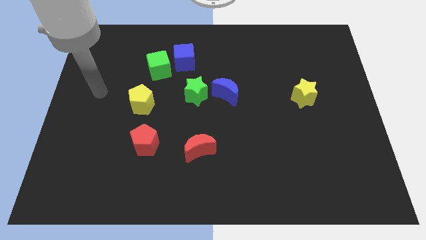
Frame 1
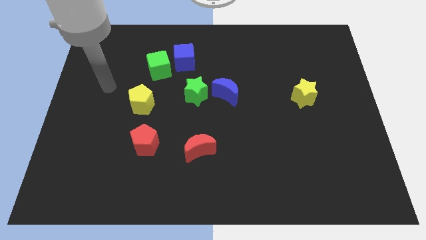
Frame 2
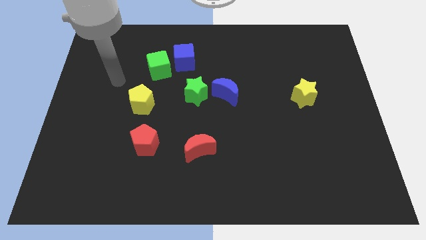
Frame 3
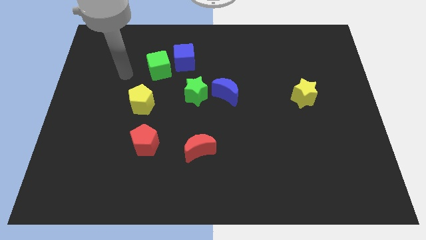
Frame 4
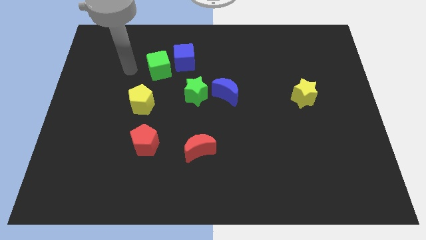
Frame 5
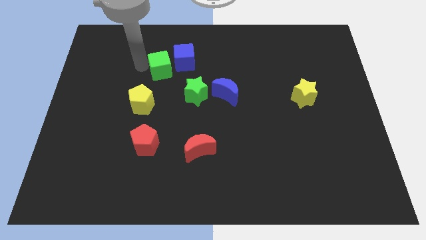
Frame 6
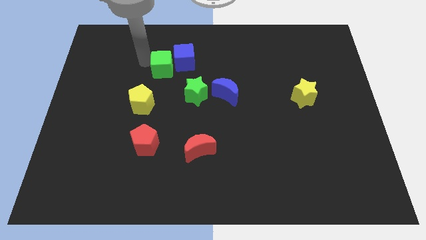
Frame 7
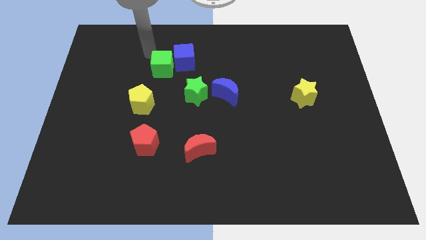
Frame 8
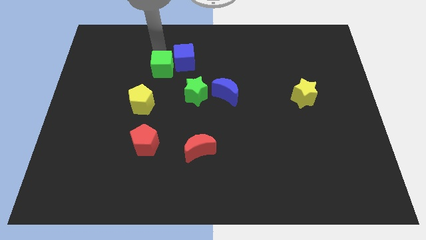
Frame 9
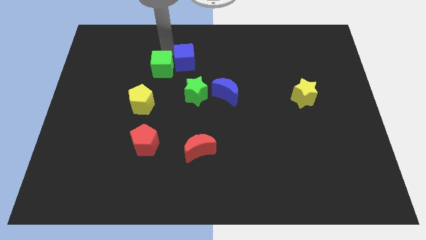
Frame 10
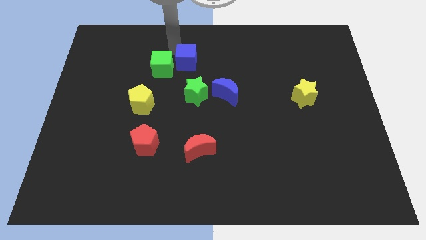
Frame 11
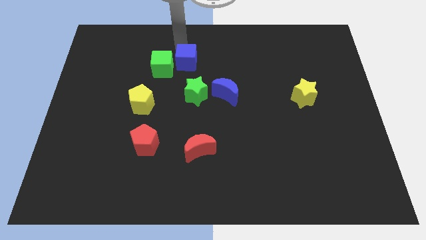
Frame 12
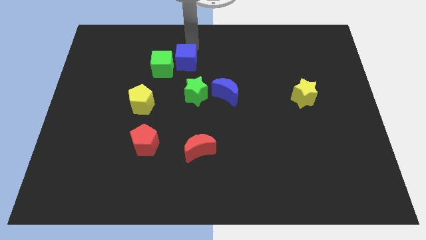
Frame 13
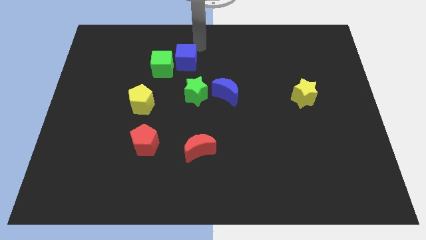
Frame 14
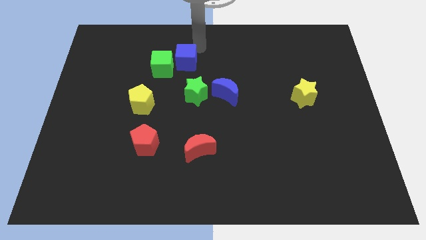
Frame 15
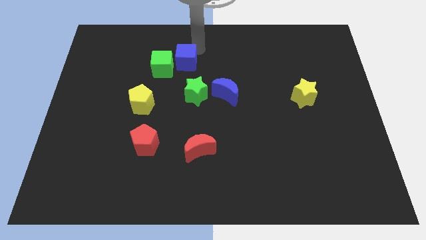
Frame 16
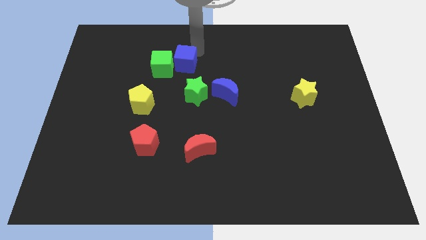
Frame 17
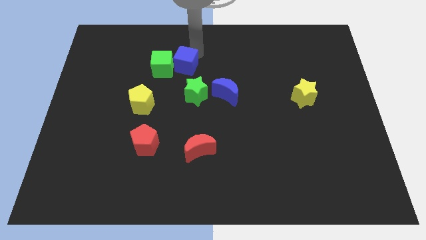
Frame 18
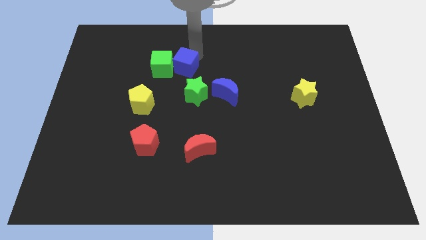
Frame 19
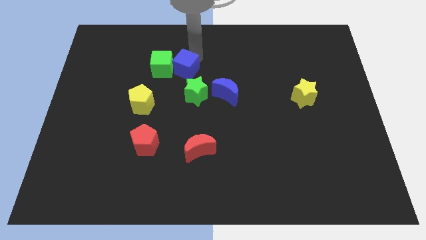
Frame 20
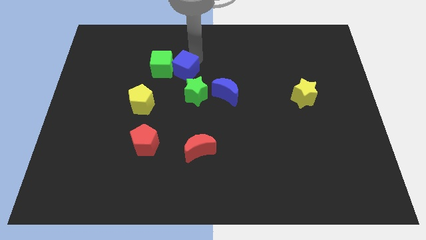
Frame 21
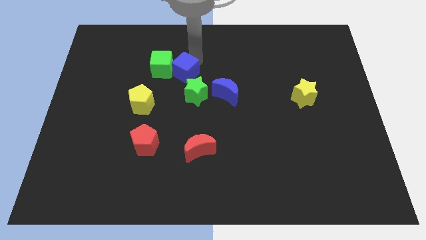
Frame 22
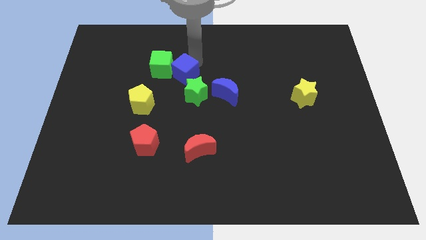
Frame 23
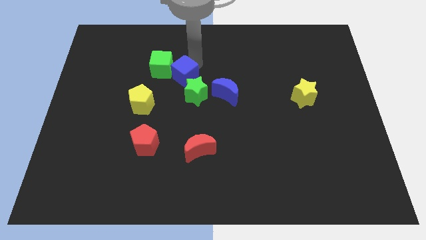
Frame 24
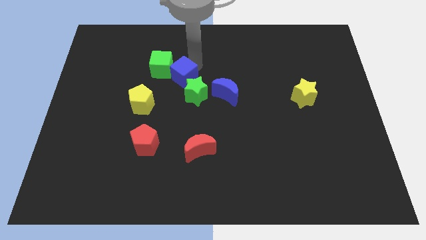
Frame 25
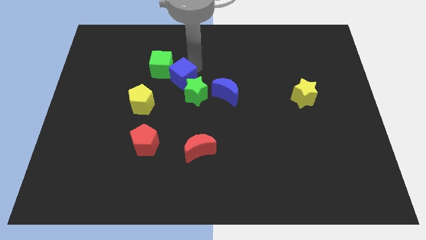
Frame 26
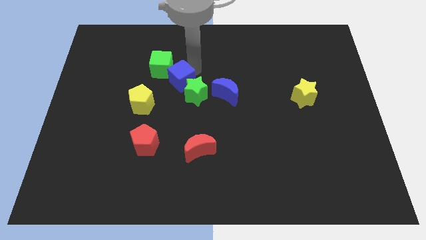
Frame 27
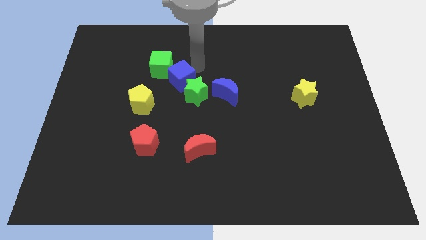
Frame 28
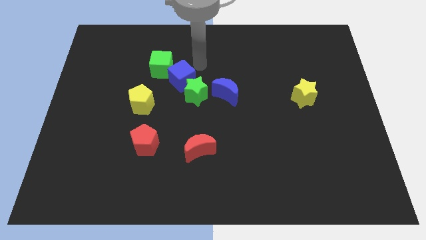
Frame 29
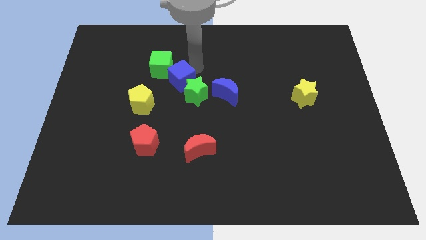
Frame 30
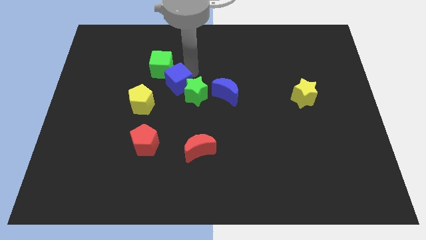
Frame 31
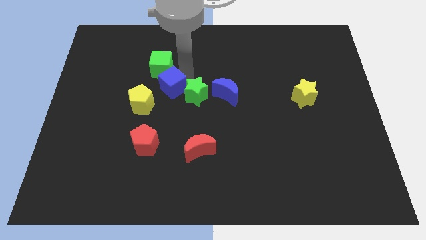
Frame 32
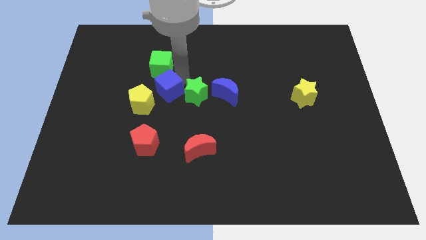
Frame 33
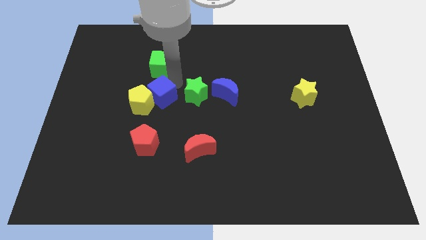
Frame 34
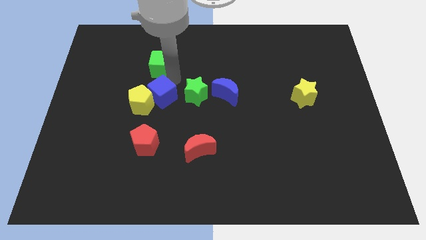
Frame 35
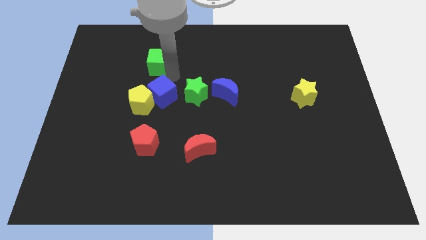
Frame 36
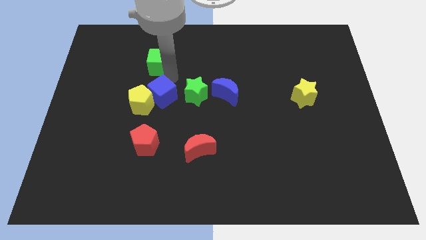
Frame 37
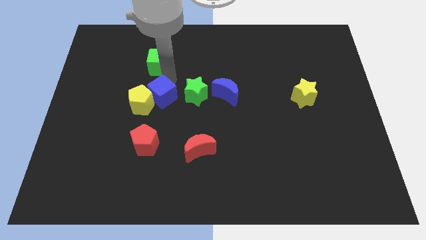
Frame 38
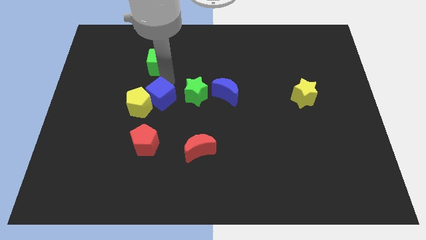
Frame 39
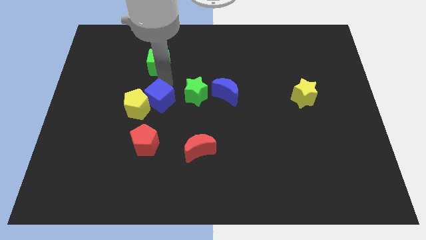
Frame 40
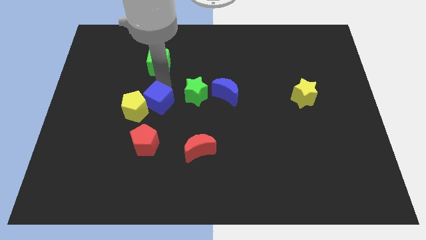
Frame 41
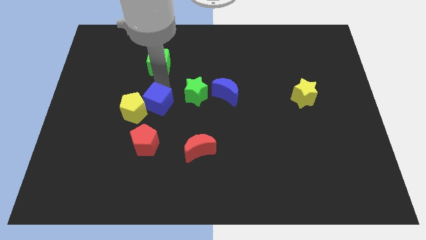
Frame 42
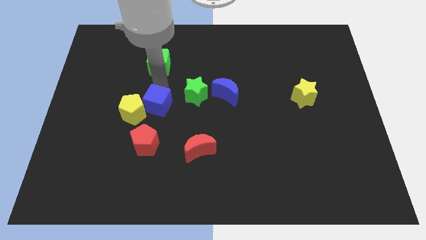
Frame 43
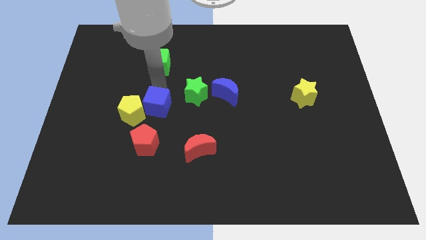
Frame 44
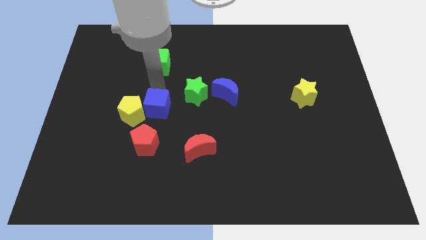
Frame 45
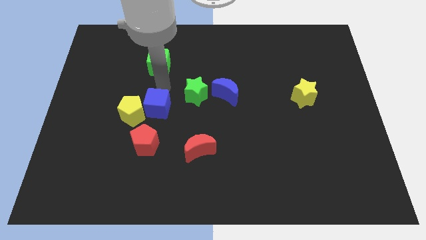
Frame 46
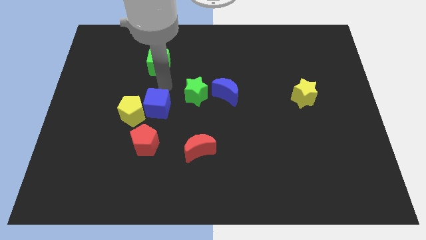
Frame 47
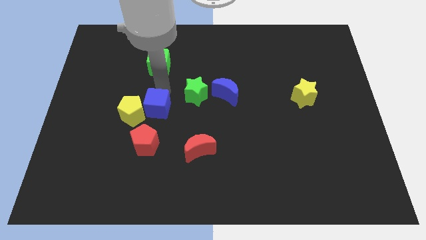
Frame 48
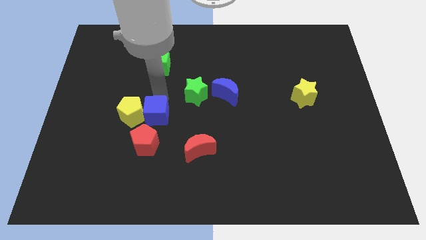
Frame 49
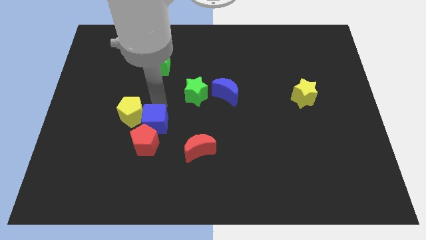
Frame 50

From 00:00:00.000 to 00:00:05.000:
move the blue cube to the red pentagon

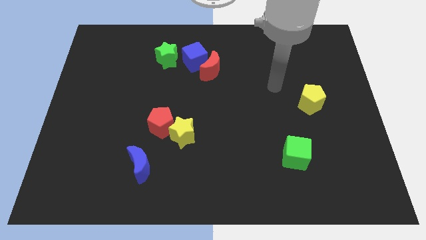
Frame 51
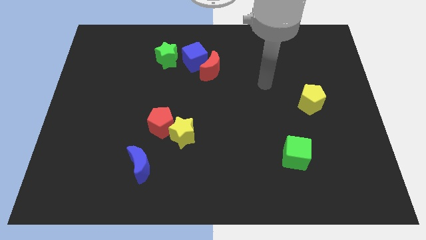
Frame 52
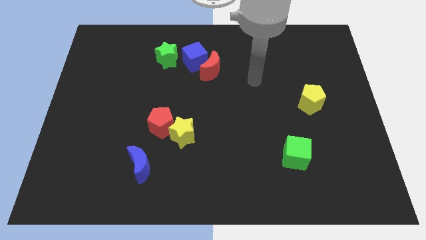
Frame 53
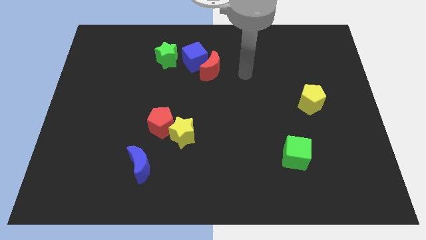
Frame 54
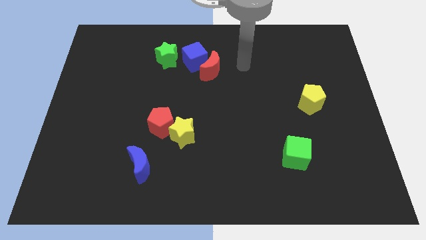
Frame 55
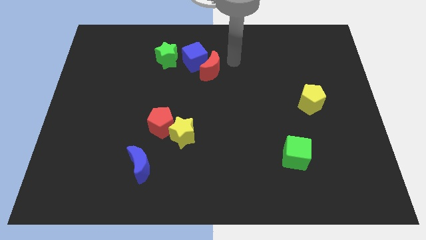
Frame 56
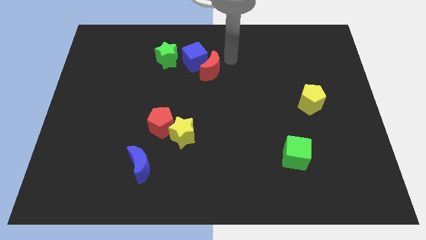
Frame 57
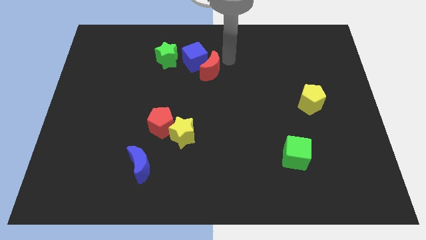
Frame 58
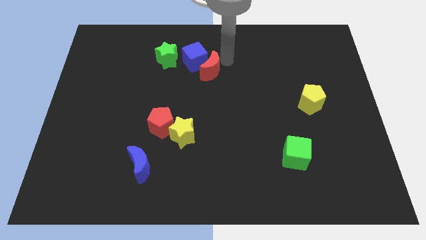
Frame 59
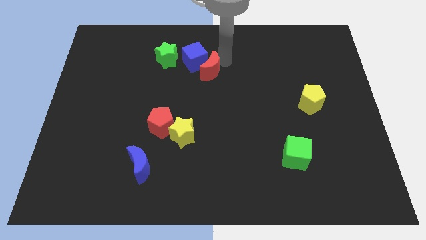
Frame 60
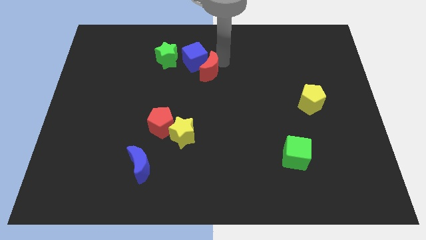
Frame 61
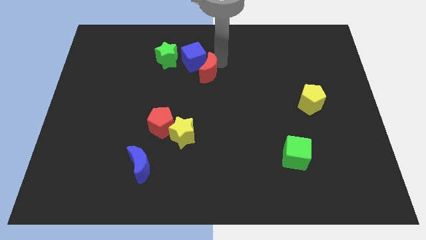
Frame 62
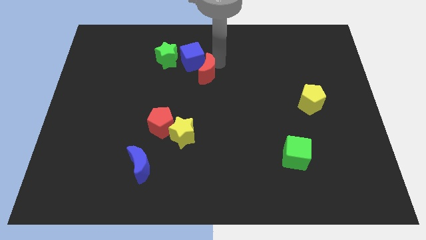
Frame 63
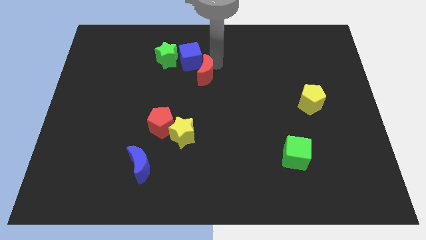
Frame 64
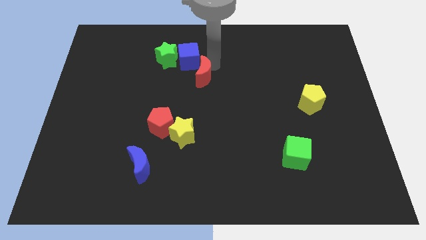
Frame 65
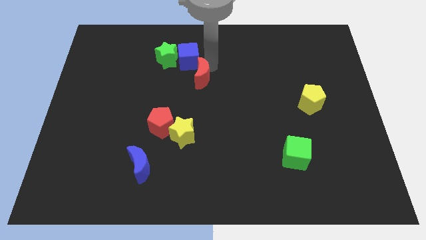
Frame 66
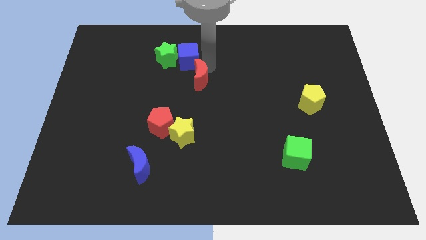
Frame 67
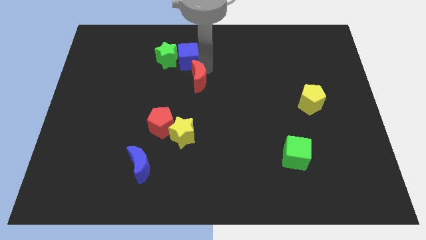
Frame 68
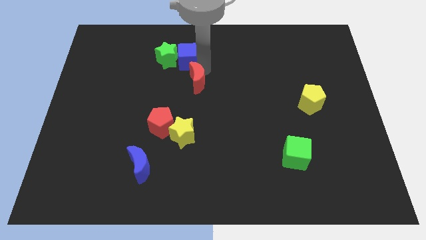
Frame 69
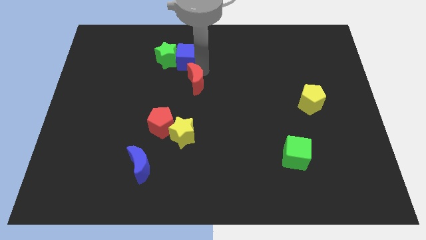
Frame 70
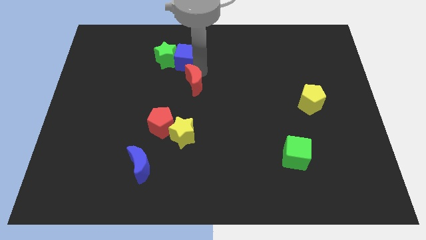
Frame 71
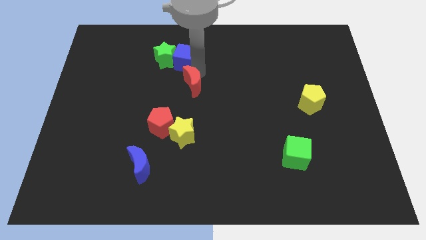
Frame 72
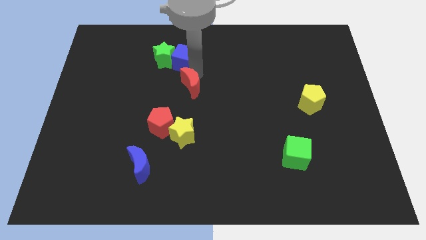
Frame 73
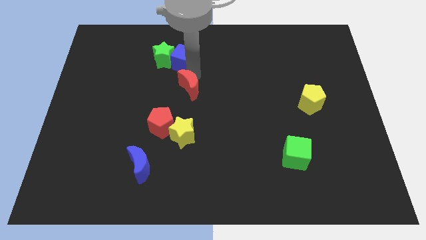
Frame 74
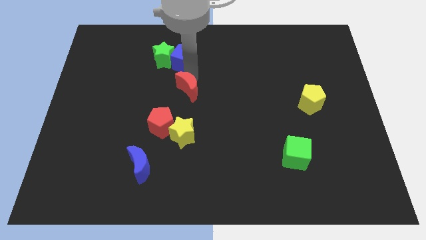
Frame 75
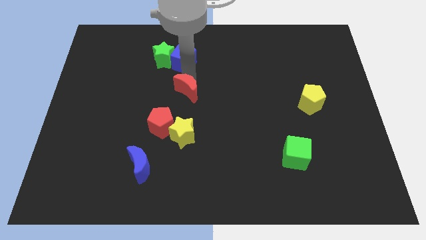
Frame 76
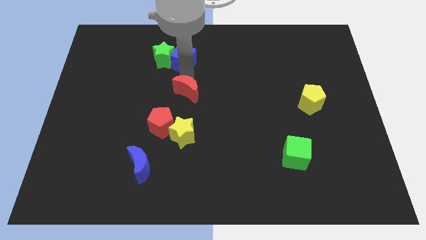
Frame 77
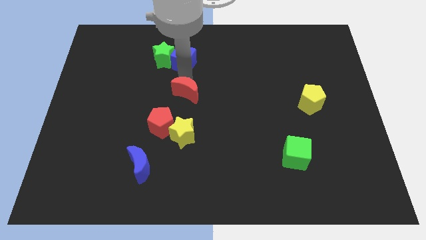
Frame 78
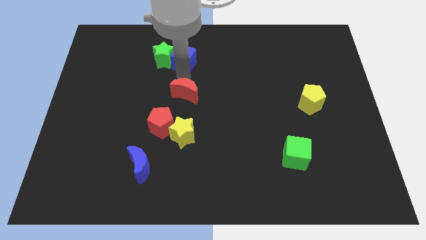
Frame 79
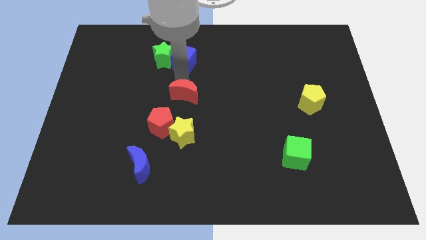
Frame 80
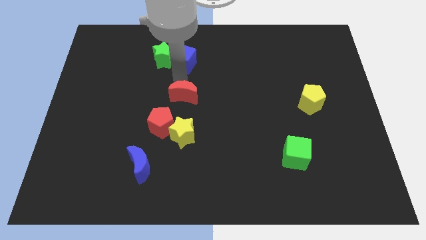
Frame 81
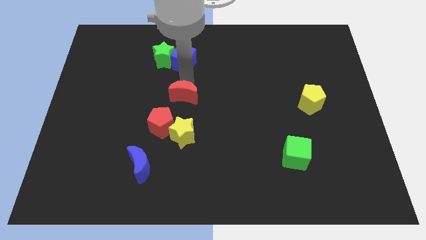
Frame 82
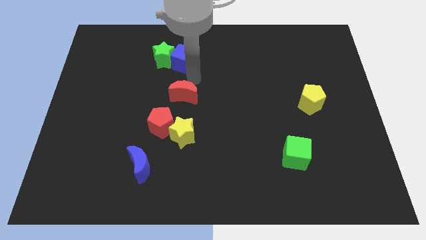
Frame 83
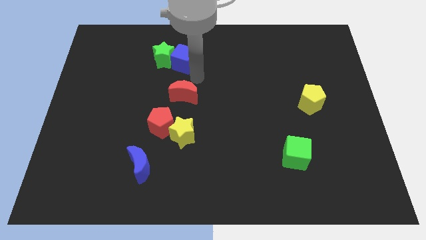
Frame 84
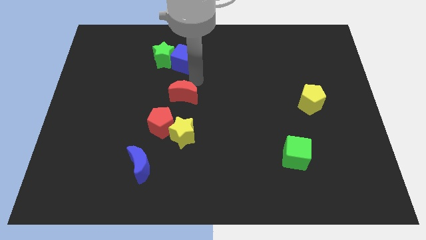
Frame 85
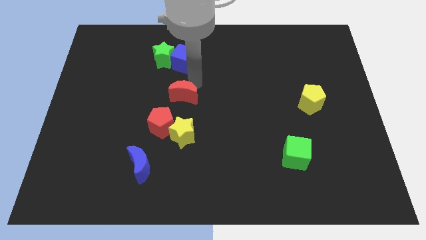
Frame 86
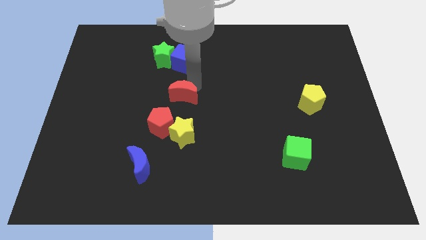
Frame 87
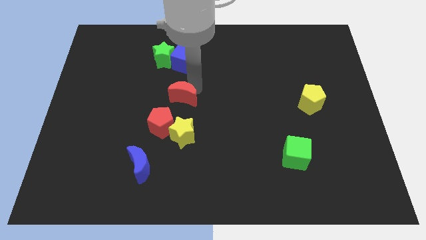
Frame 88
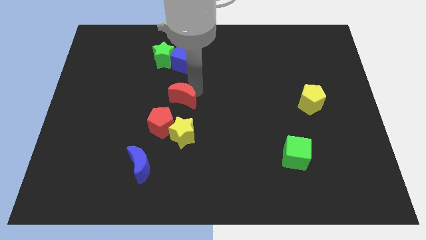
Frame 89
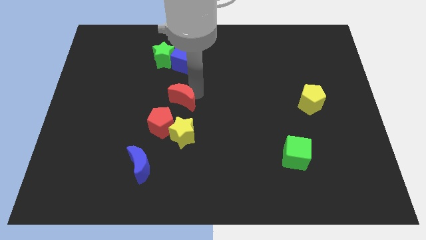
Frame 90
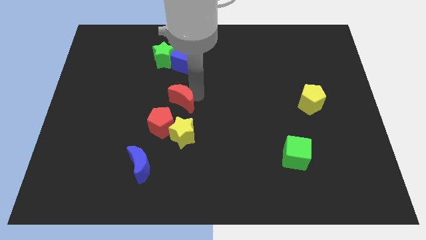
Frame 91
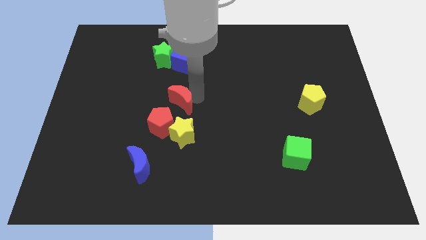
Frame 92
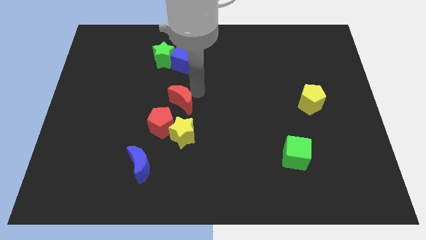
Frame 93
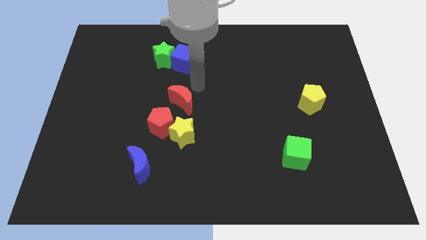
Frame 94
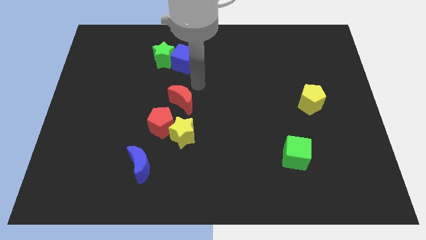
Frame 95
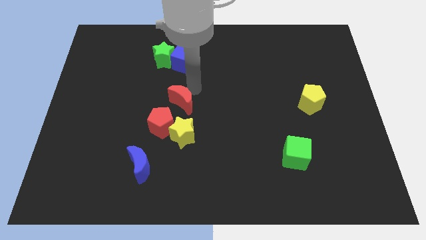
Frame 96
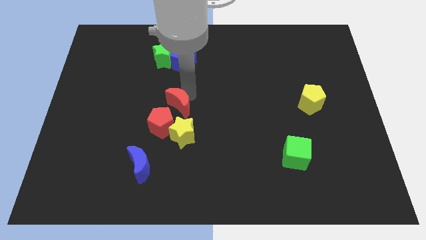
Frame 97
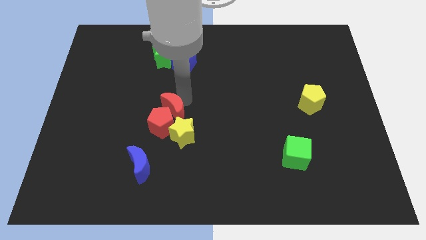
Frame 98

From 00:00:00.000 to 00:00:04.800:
slide the red moon next to the red pentagon
